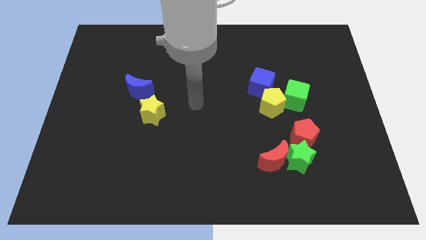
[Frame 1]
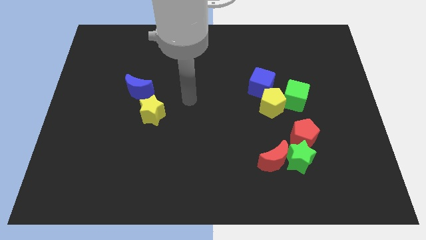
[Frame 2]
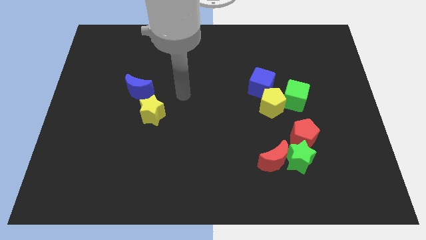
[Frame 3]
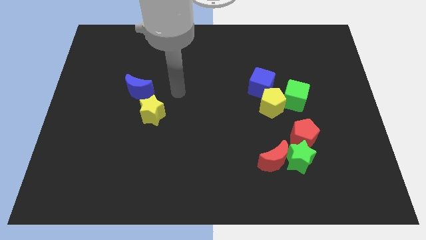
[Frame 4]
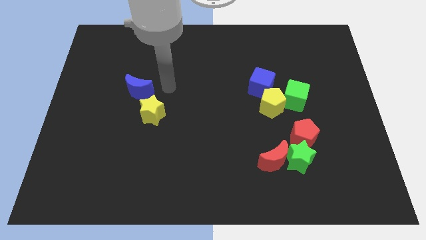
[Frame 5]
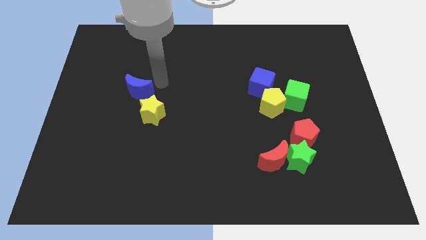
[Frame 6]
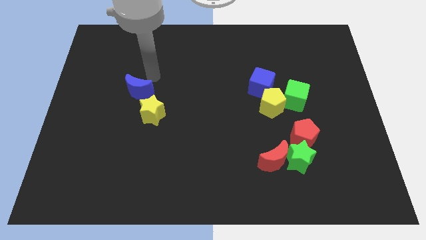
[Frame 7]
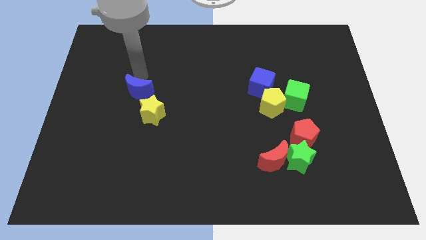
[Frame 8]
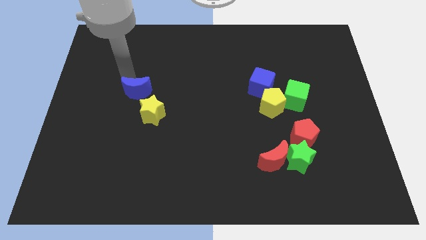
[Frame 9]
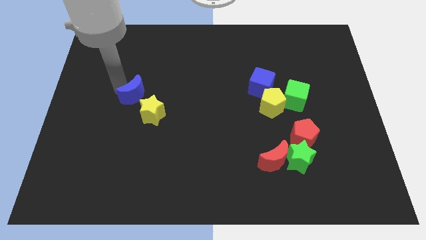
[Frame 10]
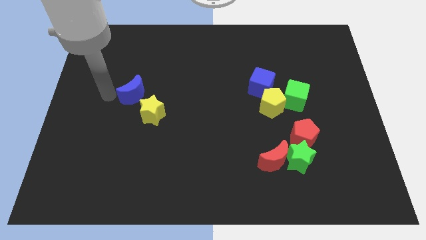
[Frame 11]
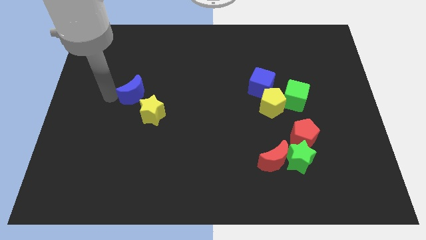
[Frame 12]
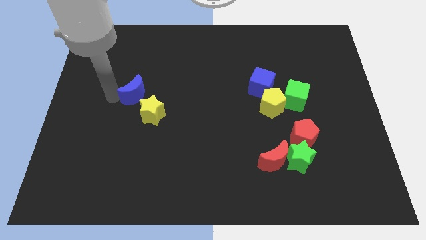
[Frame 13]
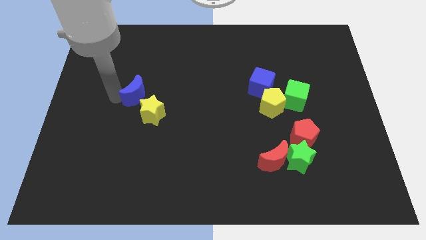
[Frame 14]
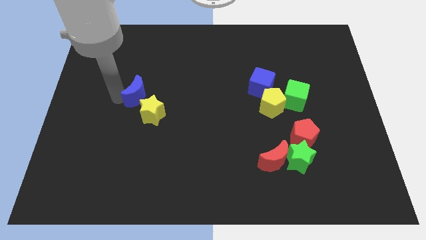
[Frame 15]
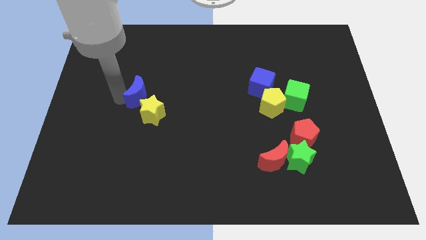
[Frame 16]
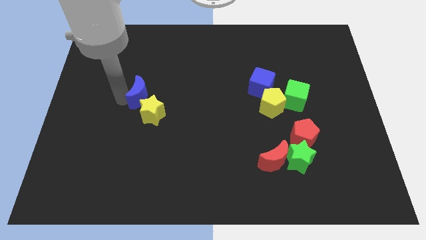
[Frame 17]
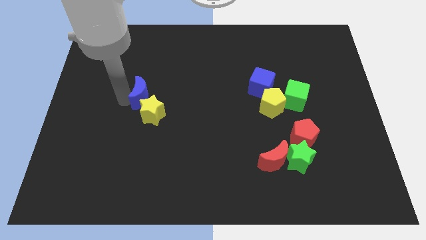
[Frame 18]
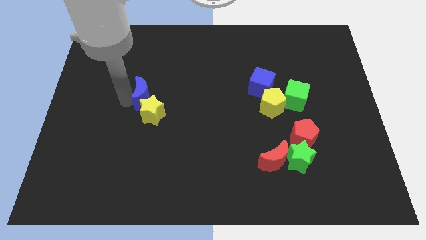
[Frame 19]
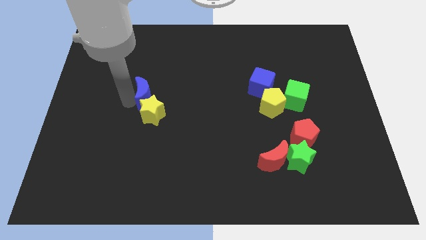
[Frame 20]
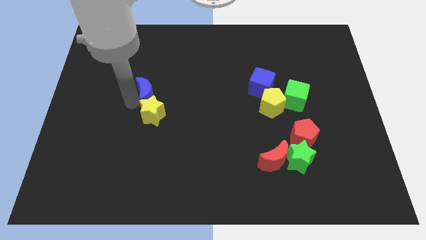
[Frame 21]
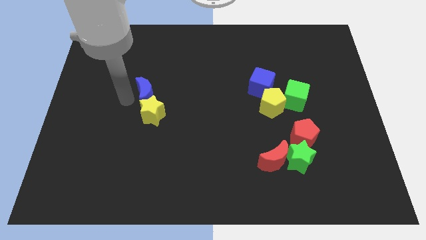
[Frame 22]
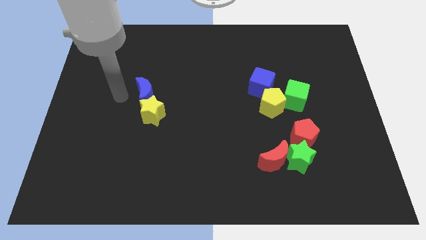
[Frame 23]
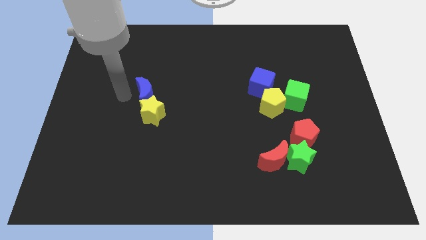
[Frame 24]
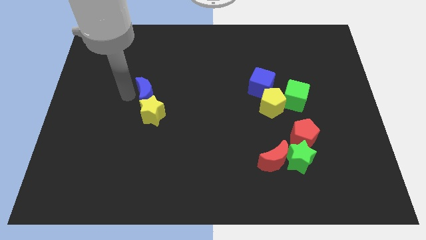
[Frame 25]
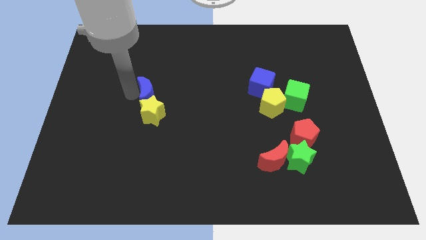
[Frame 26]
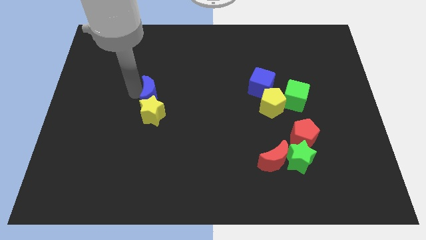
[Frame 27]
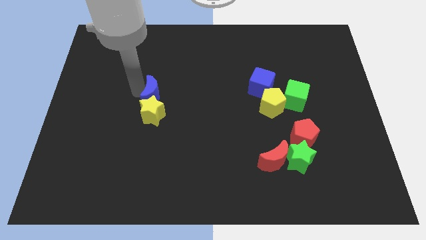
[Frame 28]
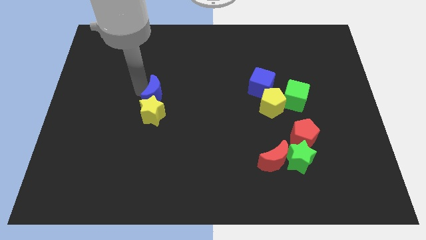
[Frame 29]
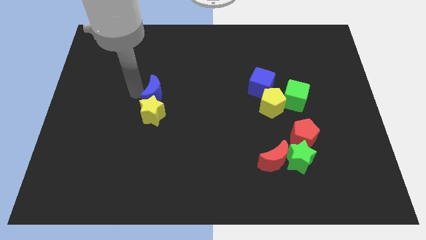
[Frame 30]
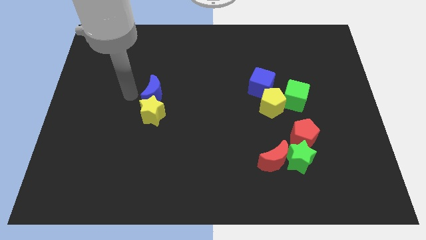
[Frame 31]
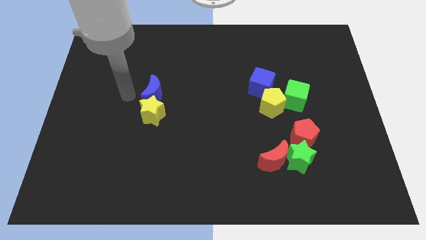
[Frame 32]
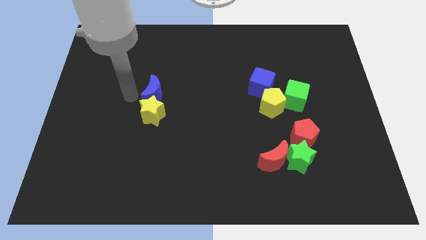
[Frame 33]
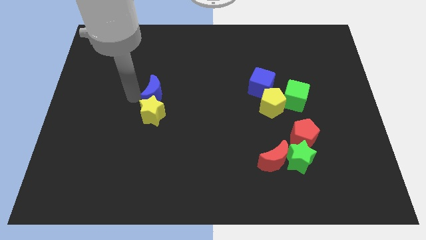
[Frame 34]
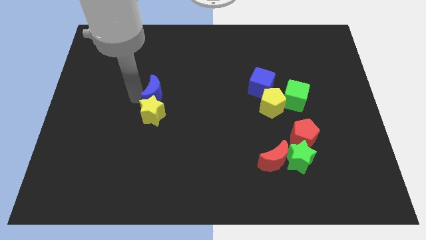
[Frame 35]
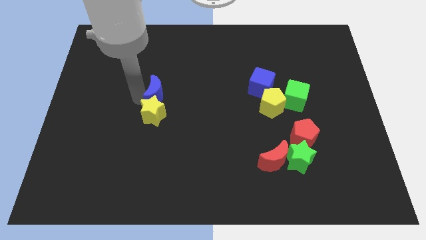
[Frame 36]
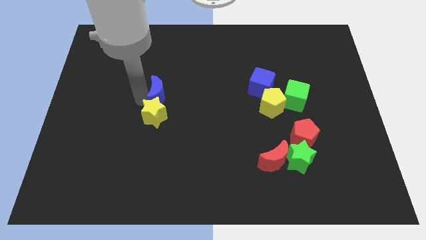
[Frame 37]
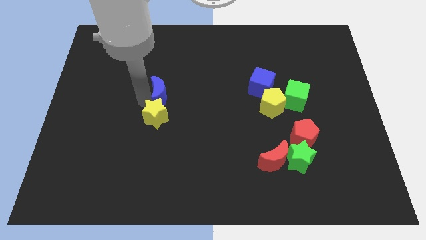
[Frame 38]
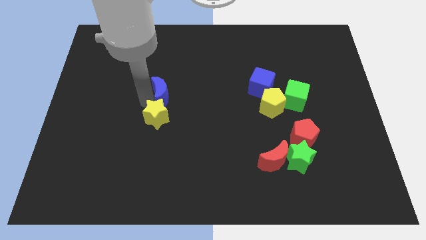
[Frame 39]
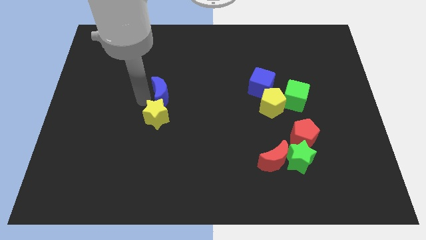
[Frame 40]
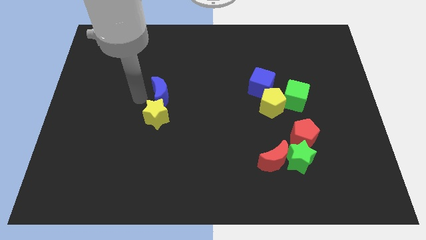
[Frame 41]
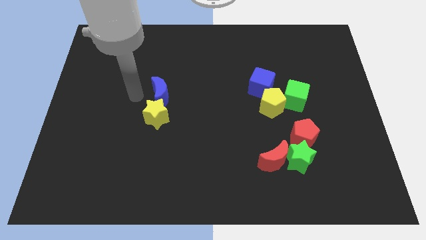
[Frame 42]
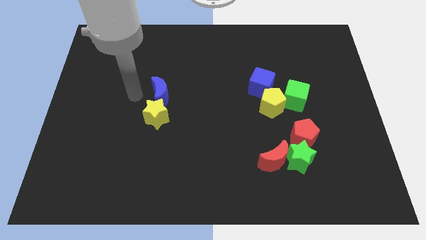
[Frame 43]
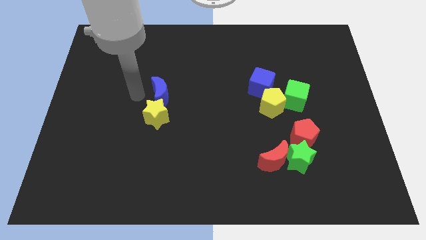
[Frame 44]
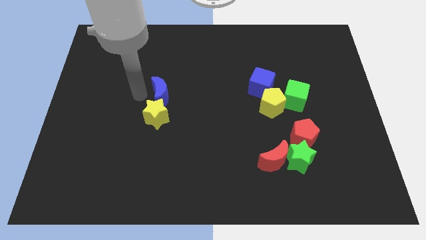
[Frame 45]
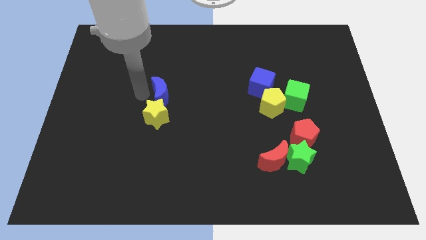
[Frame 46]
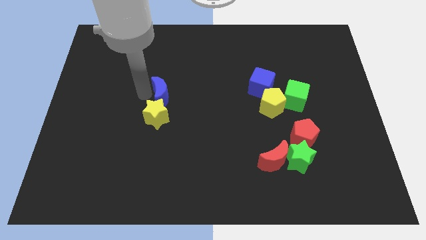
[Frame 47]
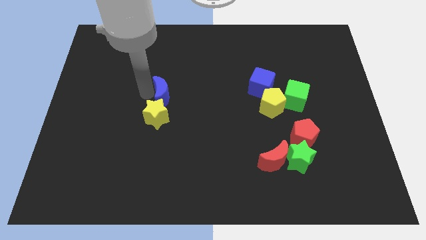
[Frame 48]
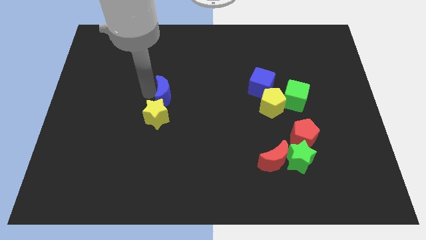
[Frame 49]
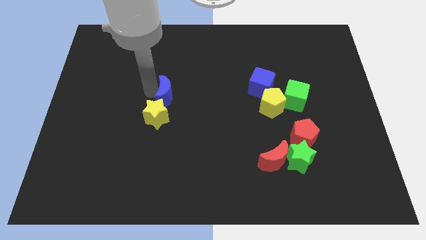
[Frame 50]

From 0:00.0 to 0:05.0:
move the blue moon a little bit to the right

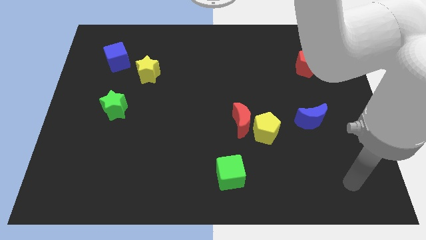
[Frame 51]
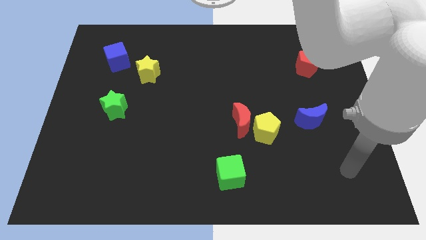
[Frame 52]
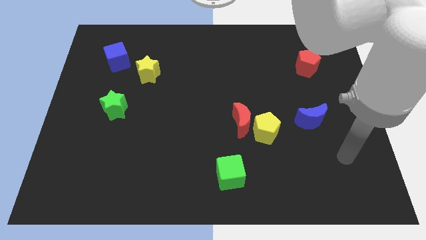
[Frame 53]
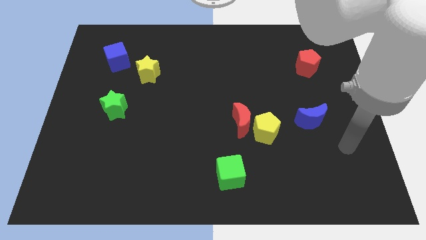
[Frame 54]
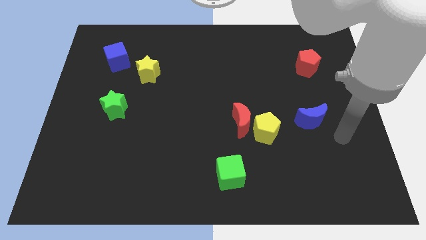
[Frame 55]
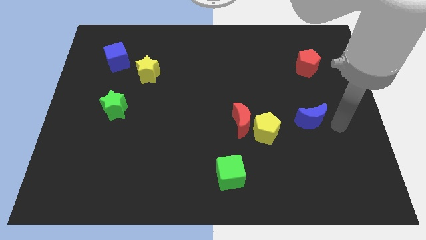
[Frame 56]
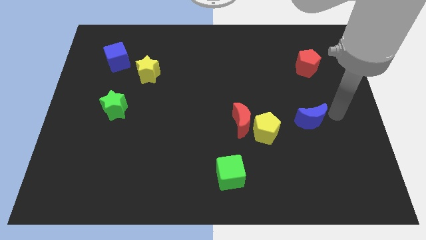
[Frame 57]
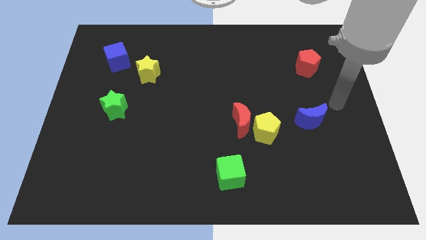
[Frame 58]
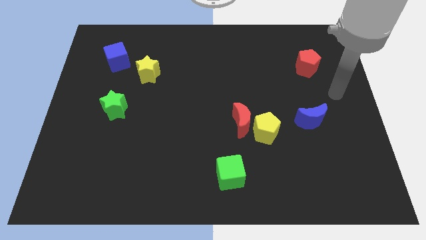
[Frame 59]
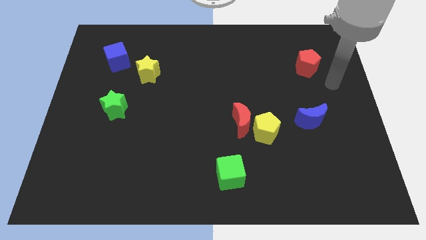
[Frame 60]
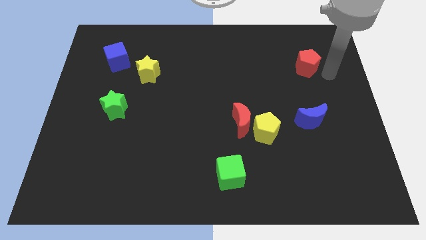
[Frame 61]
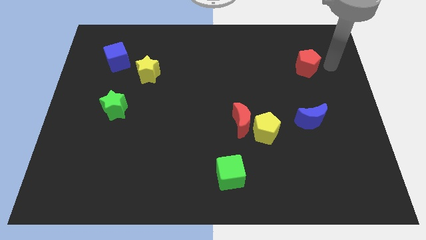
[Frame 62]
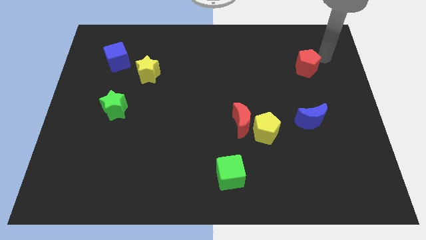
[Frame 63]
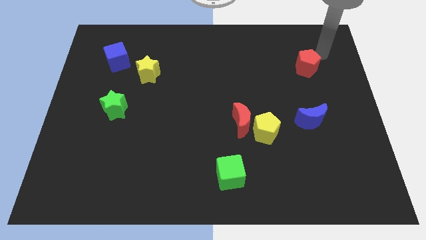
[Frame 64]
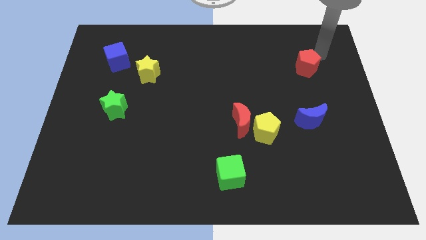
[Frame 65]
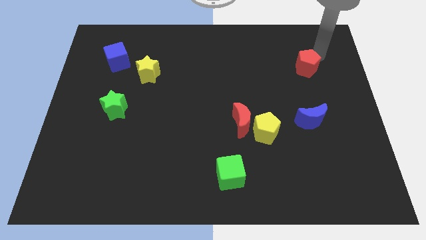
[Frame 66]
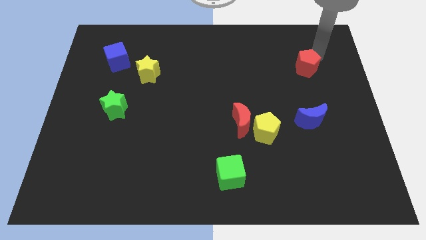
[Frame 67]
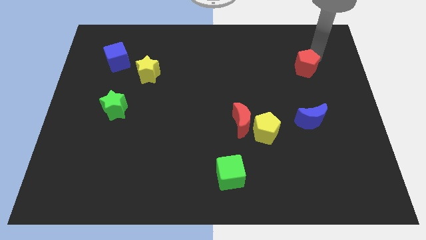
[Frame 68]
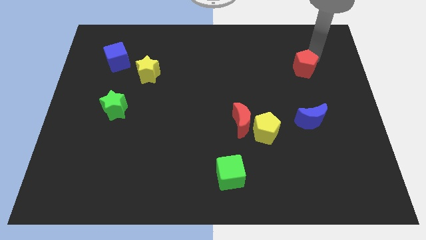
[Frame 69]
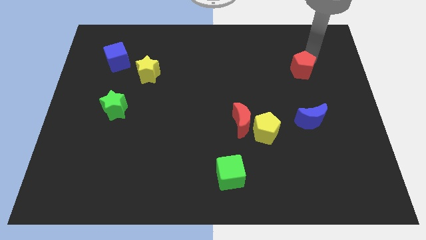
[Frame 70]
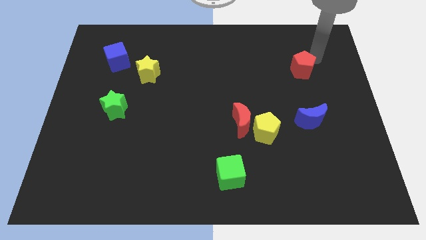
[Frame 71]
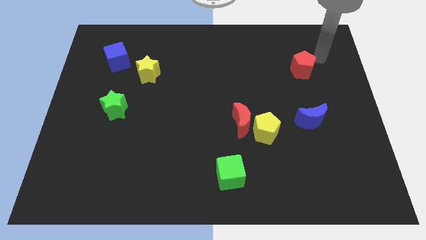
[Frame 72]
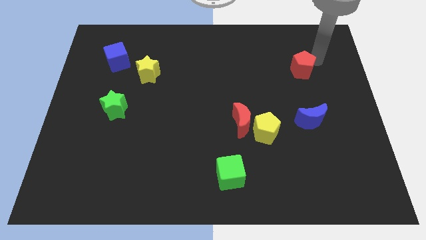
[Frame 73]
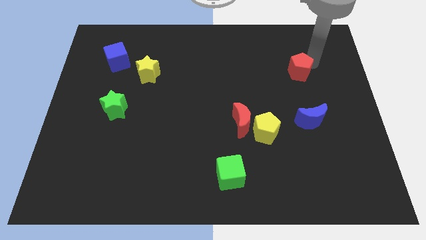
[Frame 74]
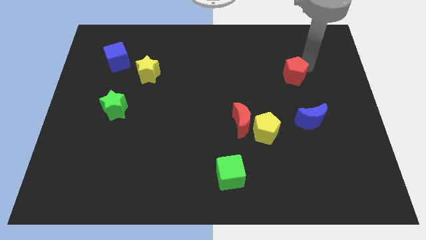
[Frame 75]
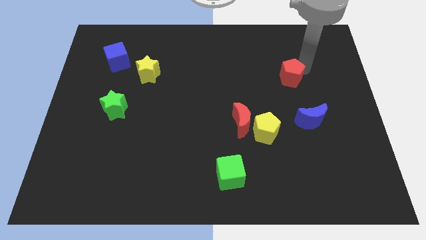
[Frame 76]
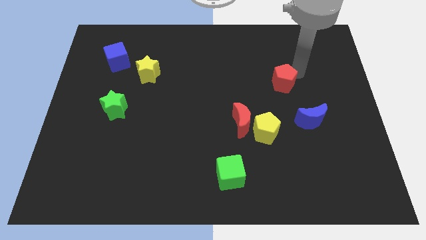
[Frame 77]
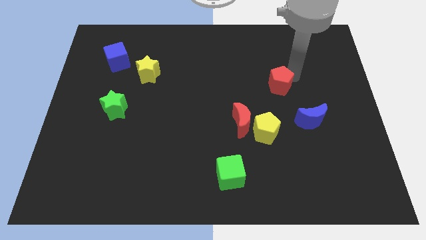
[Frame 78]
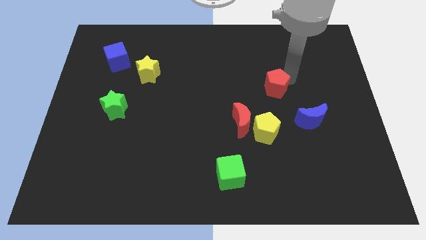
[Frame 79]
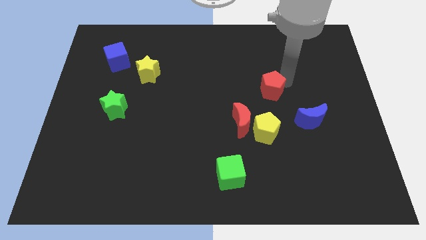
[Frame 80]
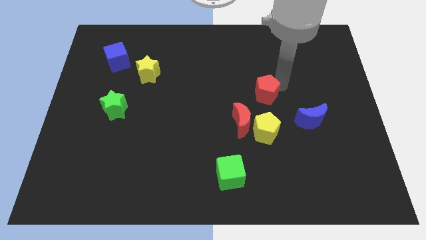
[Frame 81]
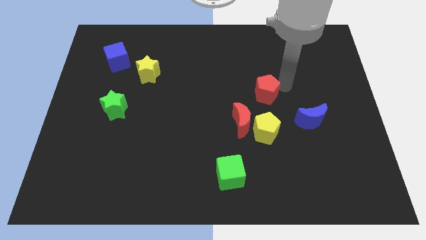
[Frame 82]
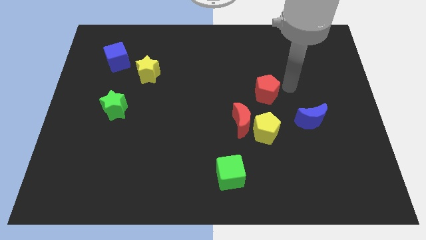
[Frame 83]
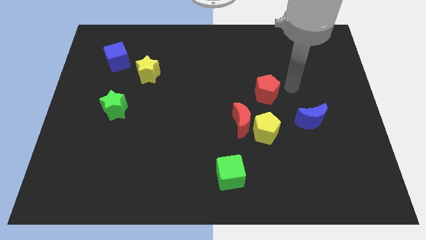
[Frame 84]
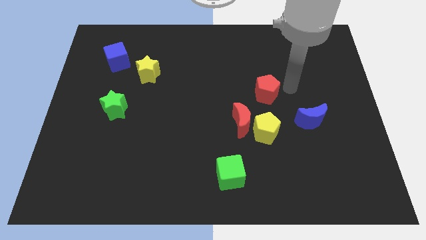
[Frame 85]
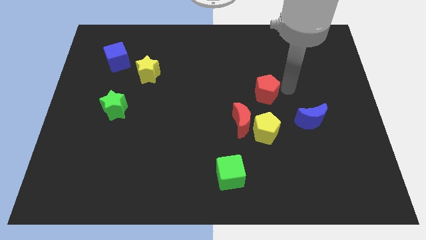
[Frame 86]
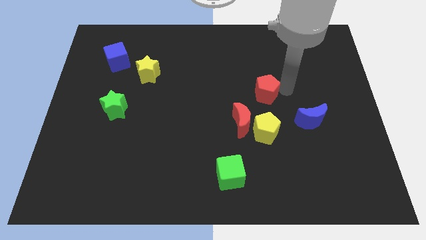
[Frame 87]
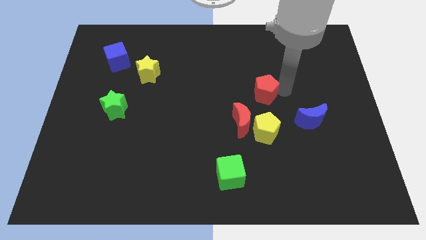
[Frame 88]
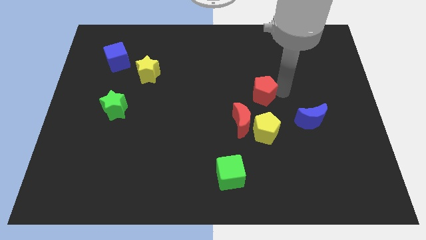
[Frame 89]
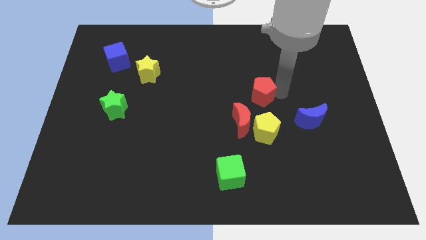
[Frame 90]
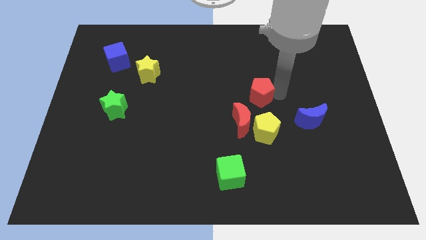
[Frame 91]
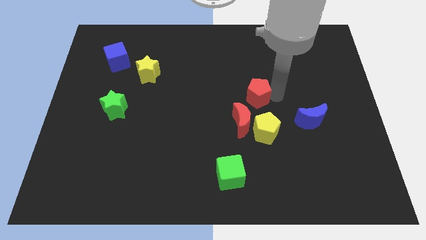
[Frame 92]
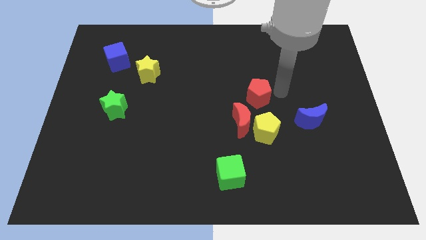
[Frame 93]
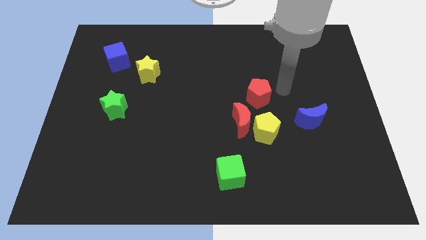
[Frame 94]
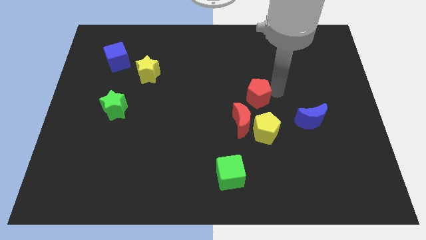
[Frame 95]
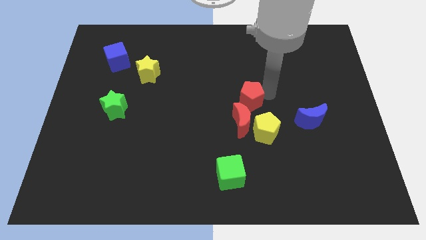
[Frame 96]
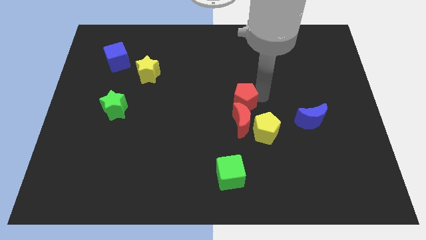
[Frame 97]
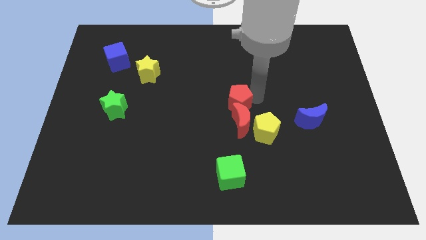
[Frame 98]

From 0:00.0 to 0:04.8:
slide the red pentagon down and then to the left
